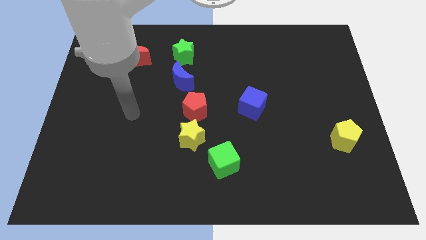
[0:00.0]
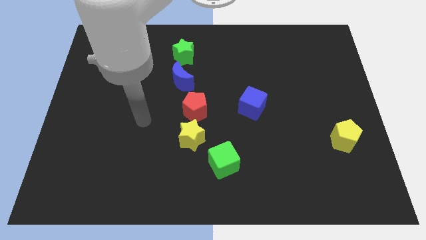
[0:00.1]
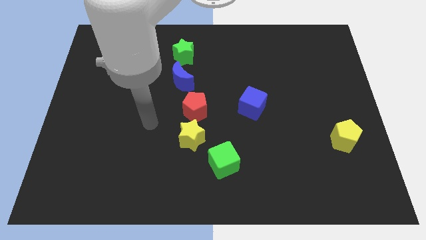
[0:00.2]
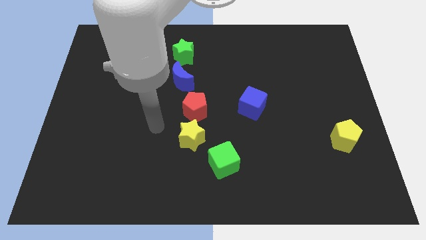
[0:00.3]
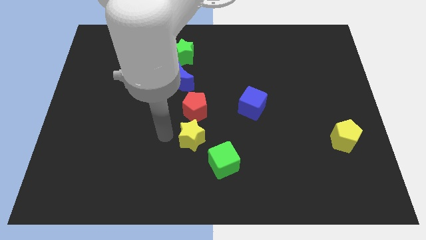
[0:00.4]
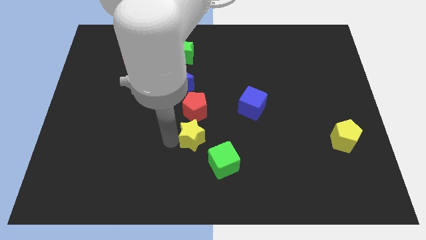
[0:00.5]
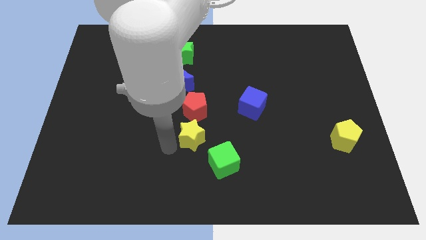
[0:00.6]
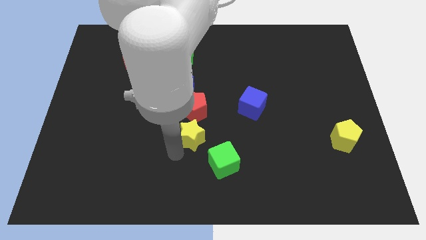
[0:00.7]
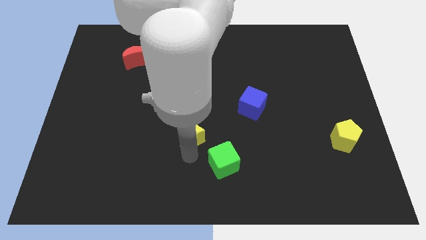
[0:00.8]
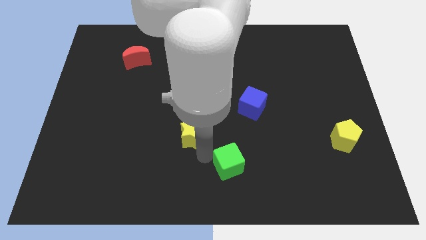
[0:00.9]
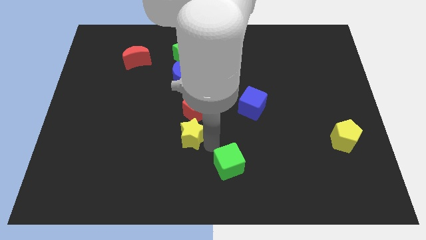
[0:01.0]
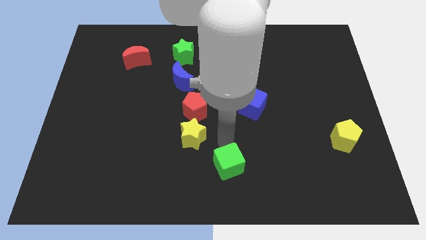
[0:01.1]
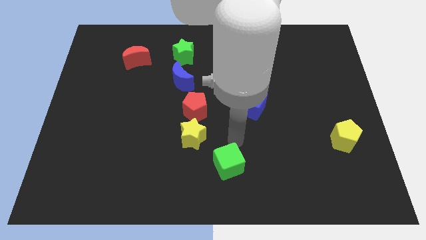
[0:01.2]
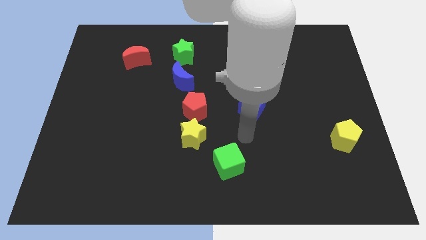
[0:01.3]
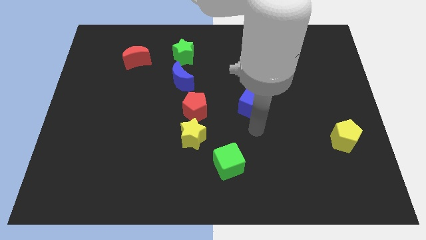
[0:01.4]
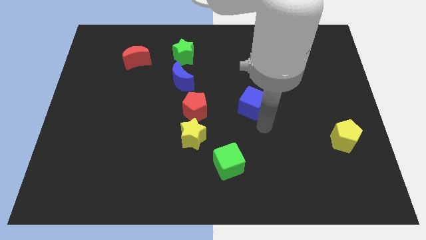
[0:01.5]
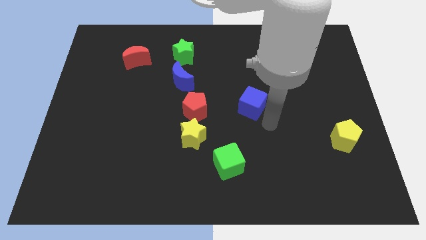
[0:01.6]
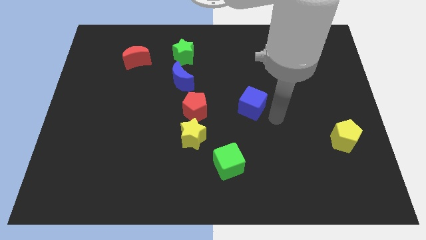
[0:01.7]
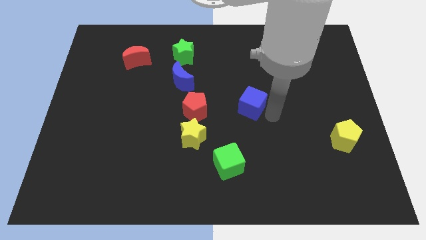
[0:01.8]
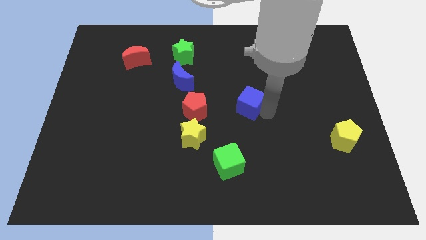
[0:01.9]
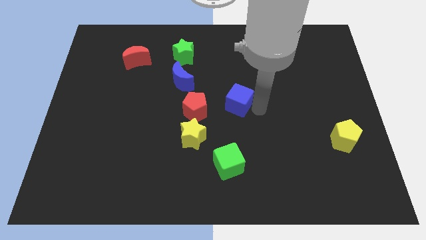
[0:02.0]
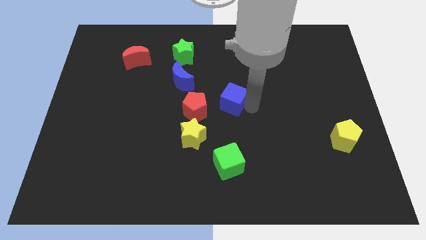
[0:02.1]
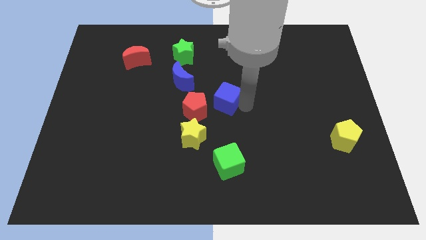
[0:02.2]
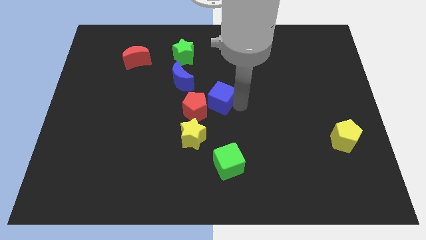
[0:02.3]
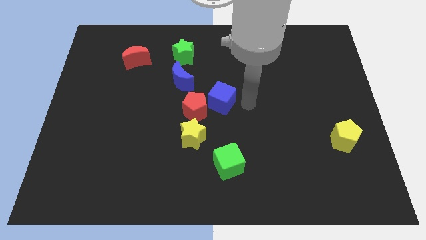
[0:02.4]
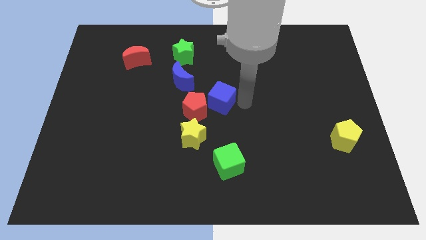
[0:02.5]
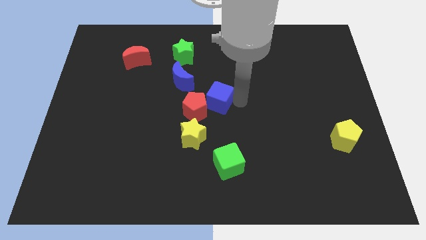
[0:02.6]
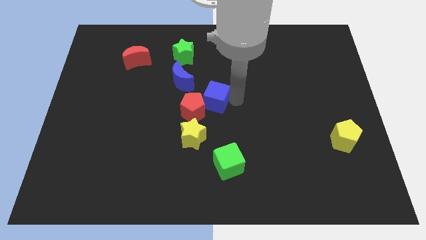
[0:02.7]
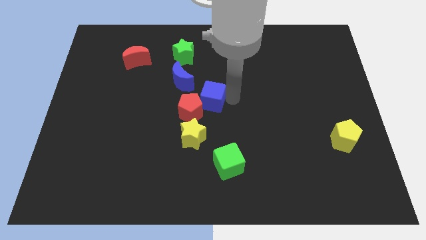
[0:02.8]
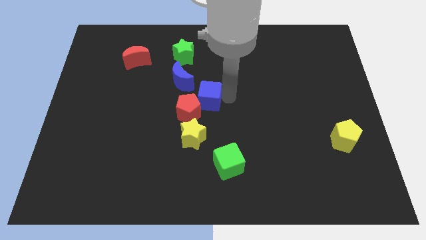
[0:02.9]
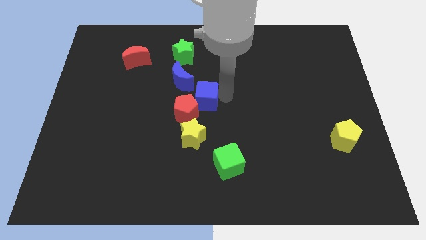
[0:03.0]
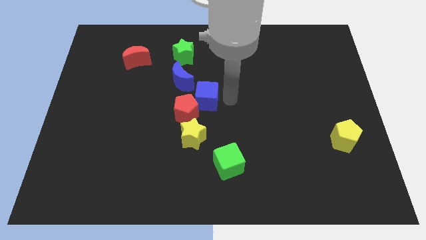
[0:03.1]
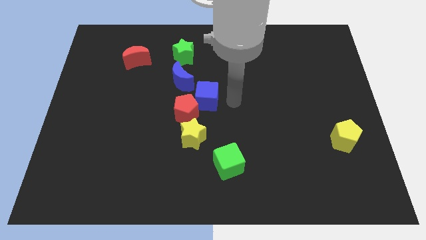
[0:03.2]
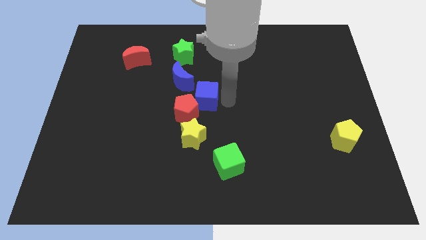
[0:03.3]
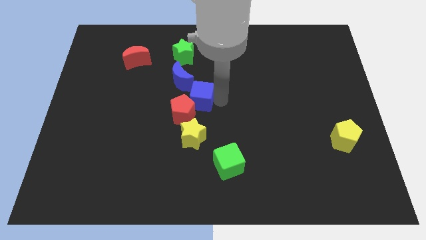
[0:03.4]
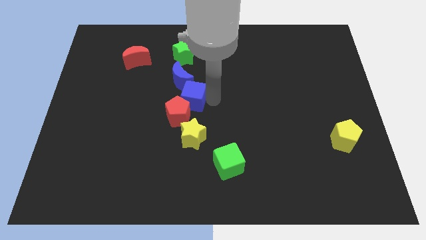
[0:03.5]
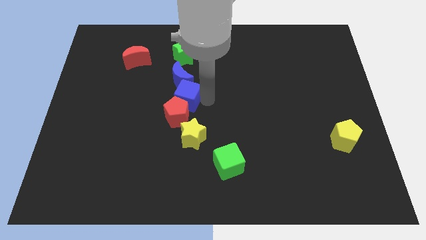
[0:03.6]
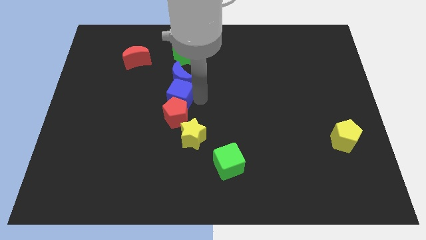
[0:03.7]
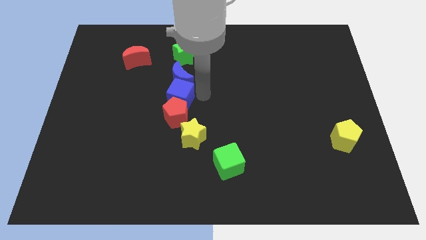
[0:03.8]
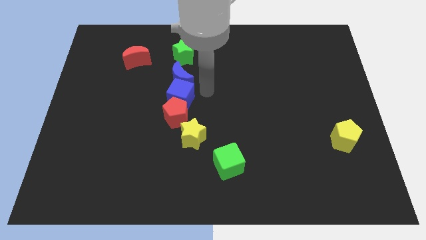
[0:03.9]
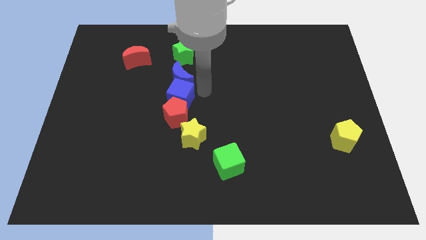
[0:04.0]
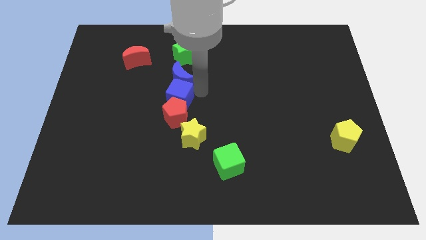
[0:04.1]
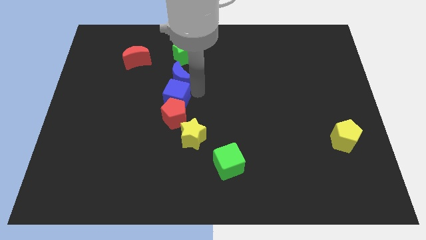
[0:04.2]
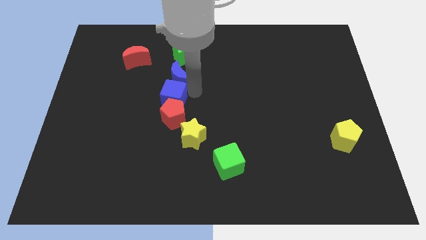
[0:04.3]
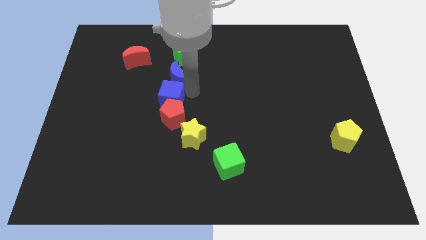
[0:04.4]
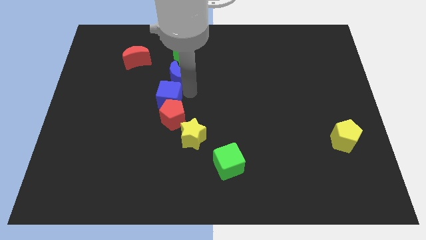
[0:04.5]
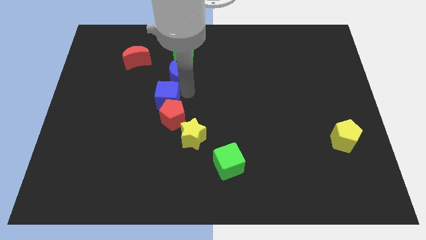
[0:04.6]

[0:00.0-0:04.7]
push the blue cube left

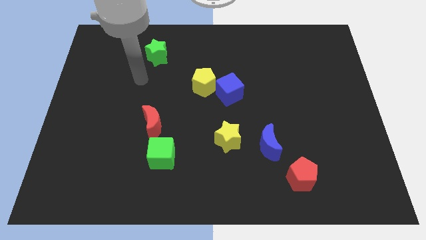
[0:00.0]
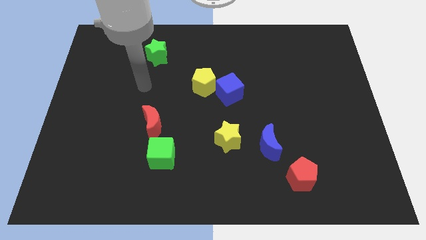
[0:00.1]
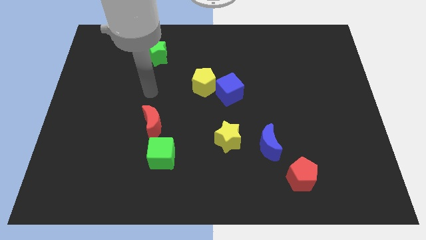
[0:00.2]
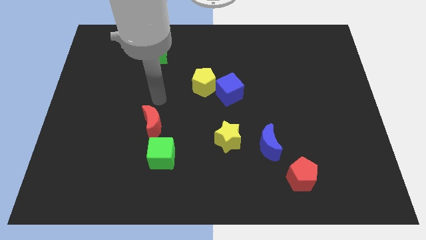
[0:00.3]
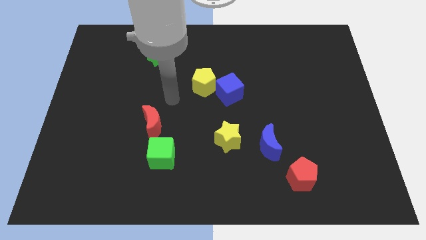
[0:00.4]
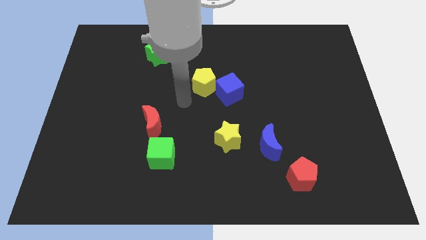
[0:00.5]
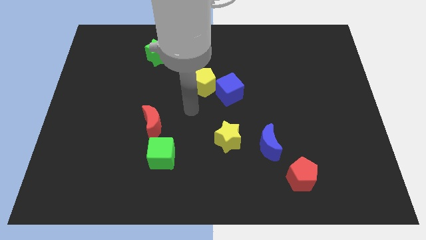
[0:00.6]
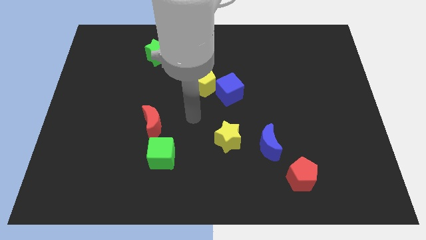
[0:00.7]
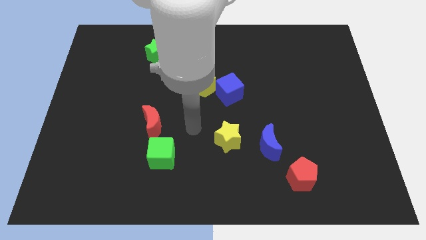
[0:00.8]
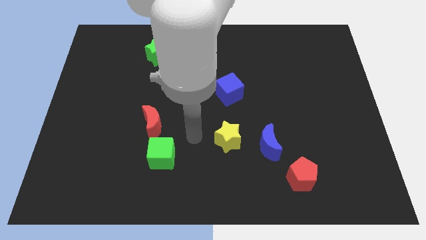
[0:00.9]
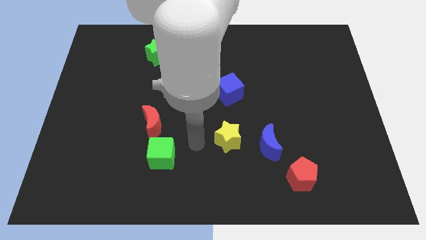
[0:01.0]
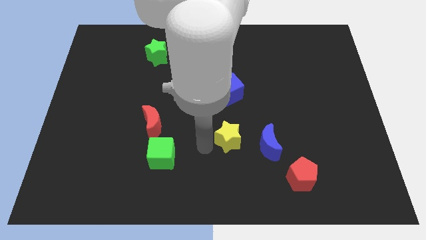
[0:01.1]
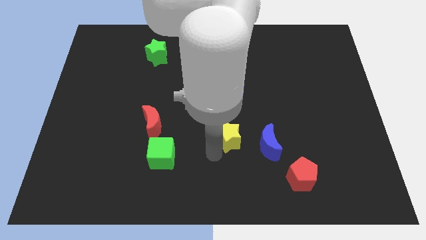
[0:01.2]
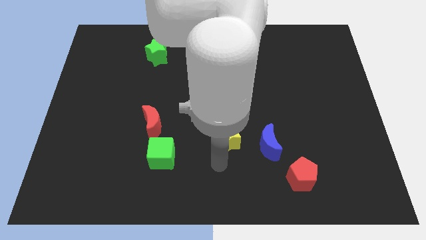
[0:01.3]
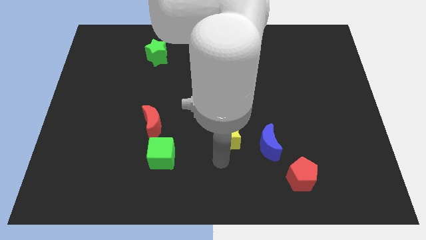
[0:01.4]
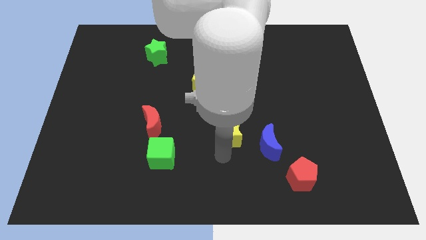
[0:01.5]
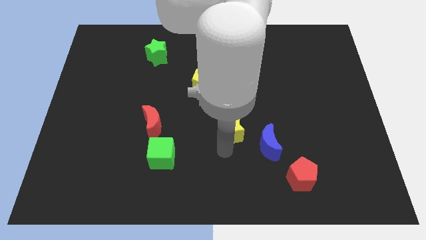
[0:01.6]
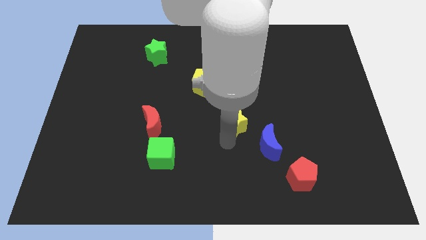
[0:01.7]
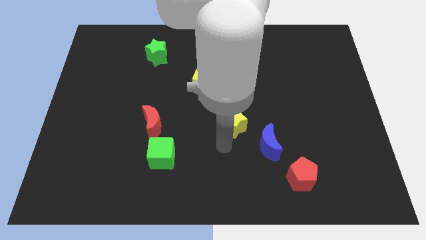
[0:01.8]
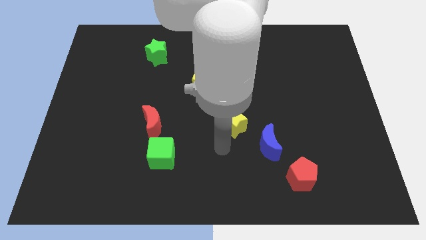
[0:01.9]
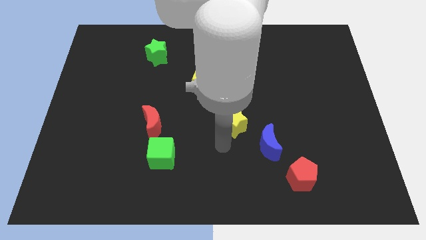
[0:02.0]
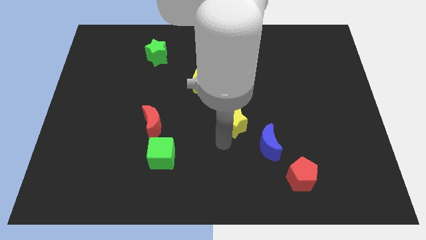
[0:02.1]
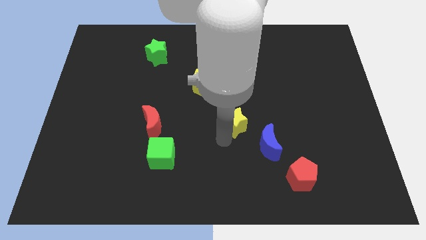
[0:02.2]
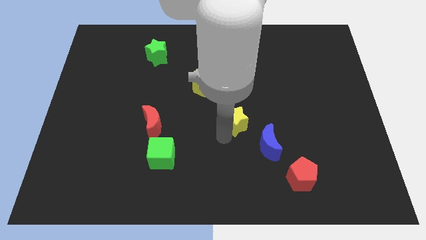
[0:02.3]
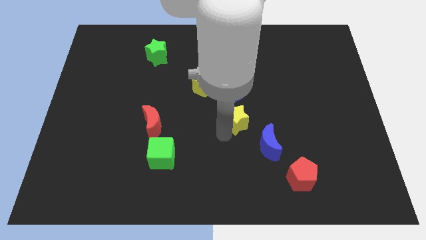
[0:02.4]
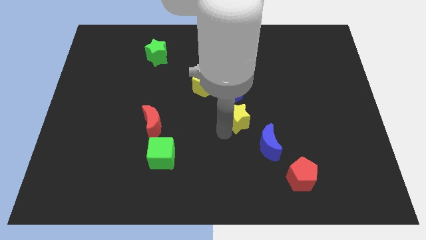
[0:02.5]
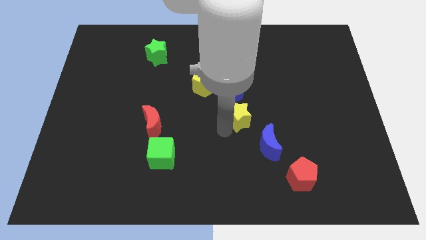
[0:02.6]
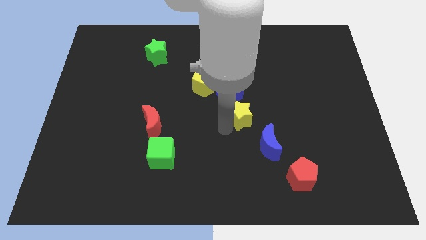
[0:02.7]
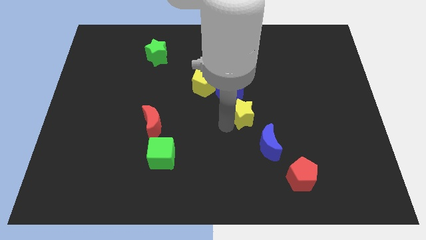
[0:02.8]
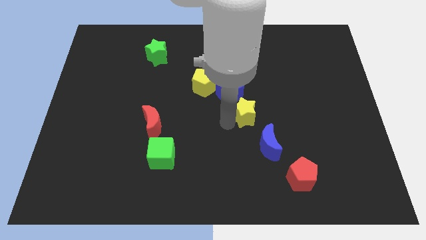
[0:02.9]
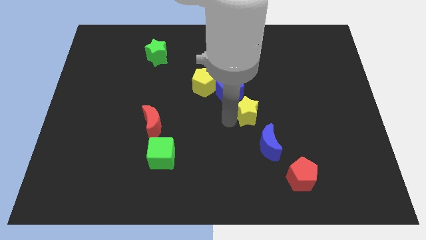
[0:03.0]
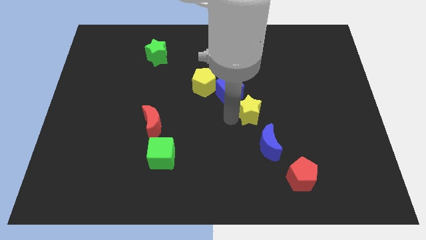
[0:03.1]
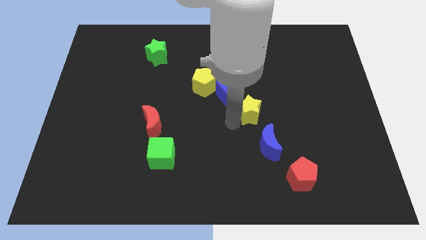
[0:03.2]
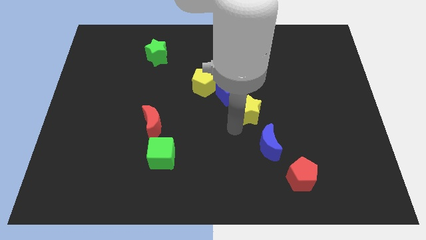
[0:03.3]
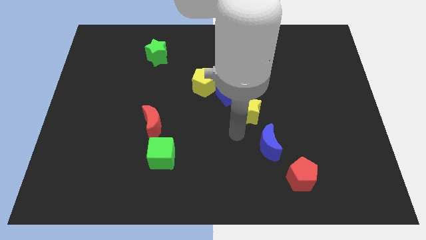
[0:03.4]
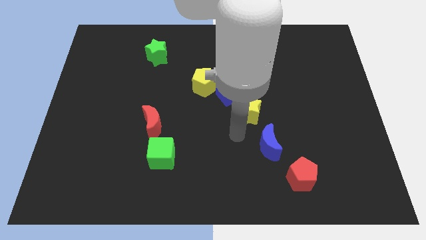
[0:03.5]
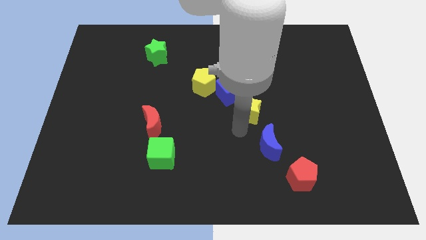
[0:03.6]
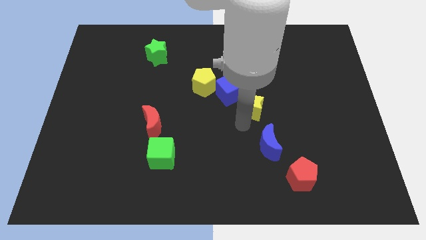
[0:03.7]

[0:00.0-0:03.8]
slide the yellow star up somewhat

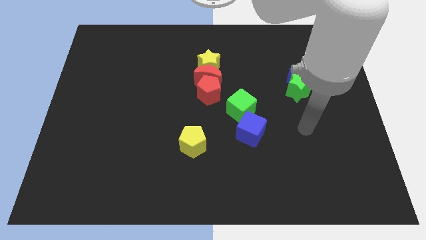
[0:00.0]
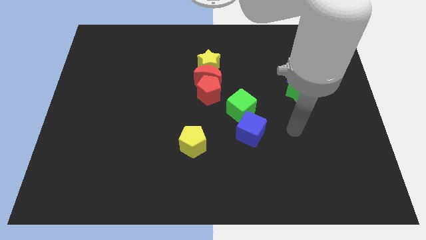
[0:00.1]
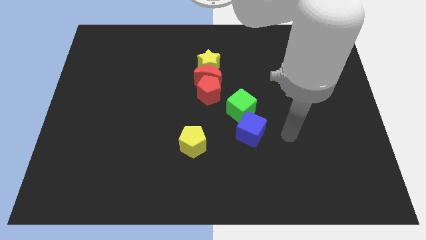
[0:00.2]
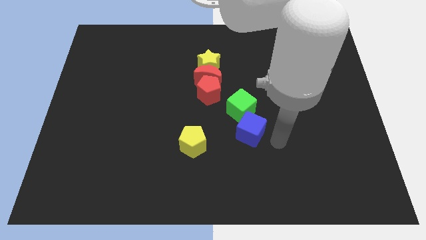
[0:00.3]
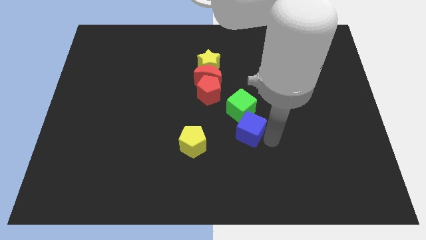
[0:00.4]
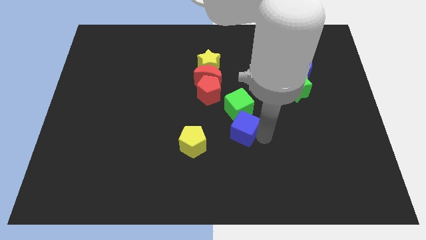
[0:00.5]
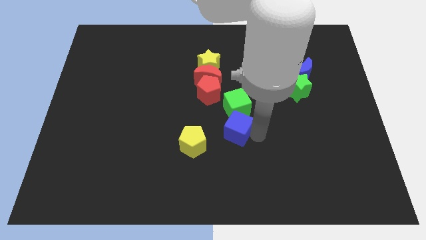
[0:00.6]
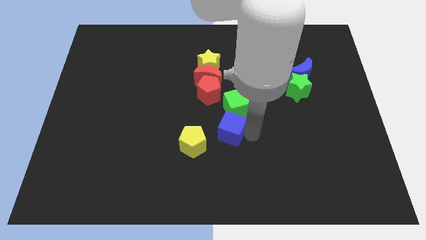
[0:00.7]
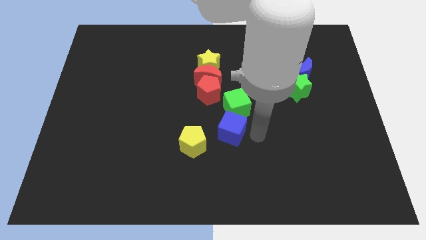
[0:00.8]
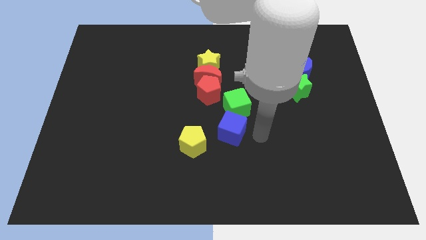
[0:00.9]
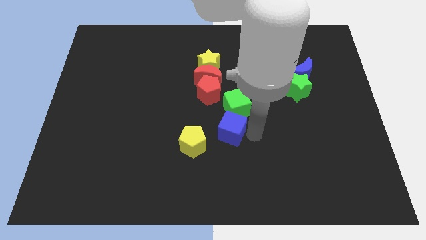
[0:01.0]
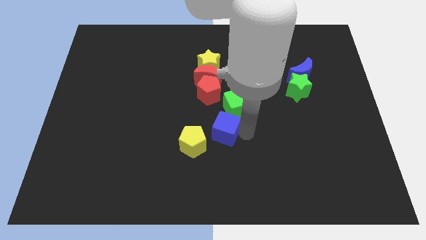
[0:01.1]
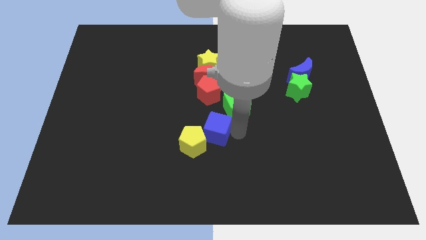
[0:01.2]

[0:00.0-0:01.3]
push the blue cube somewhat left
